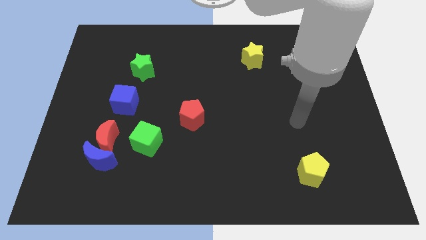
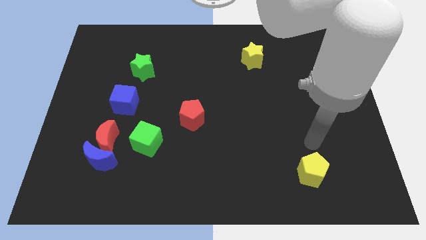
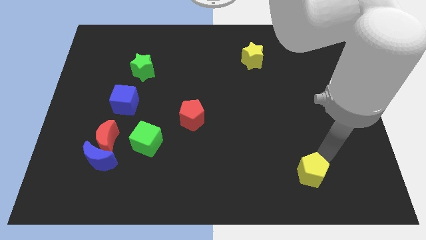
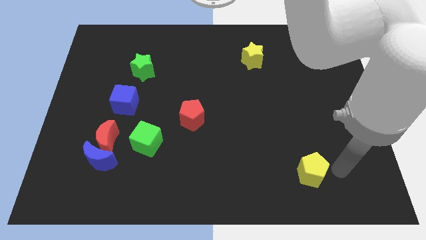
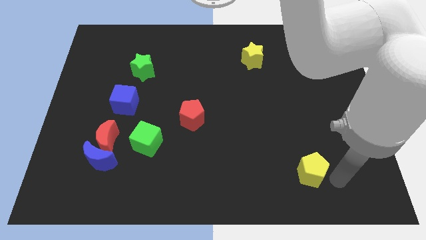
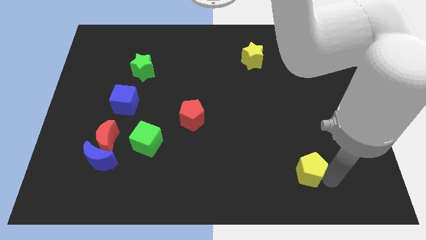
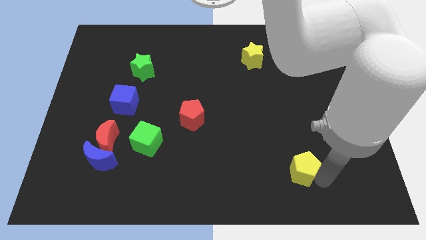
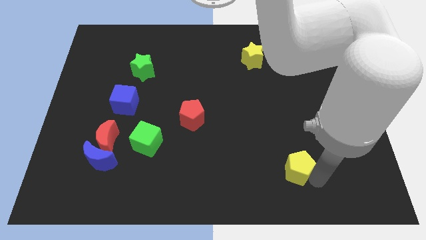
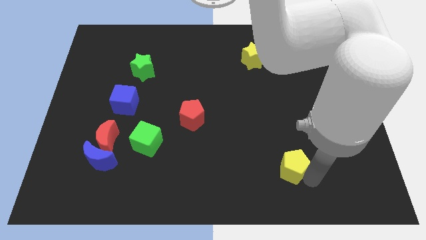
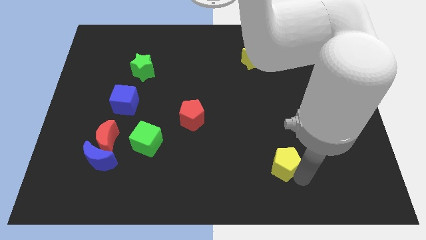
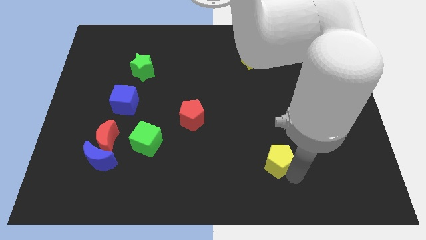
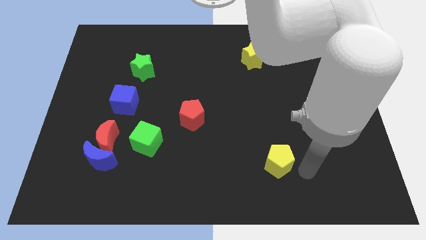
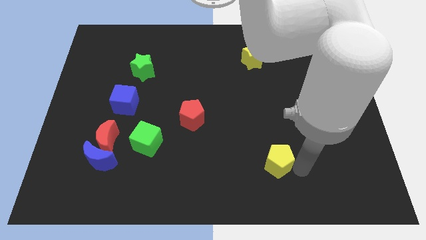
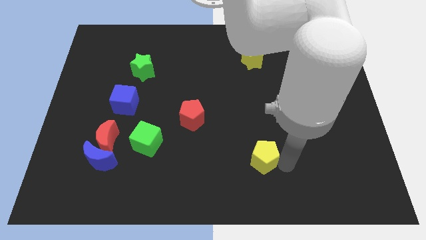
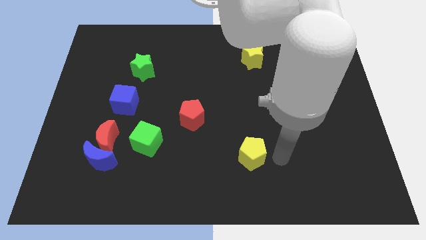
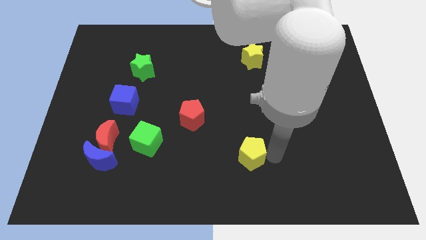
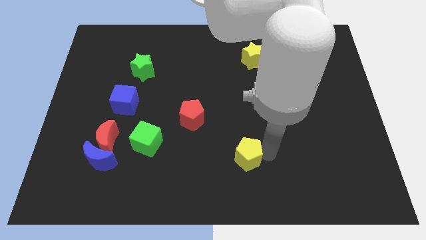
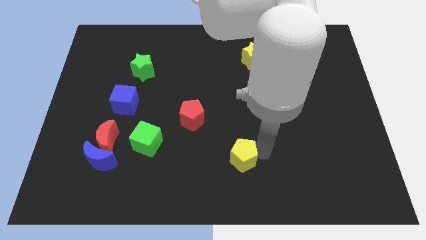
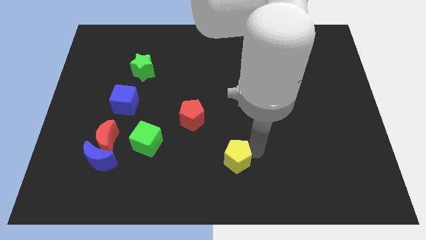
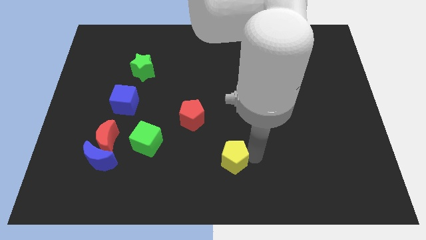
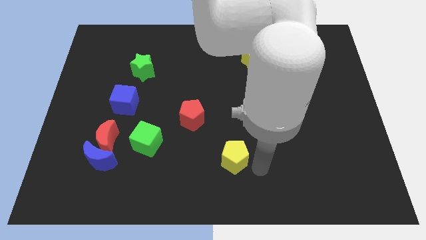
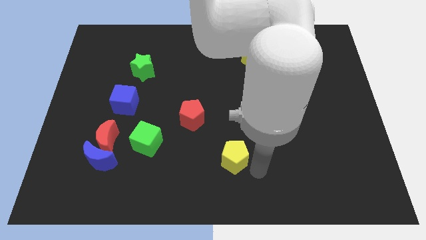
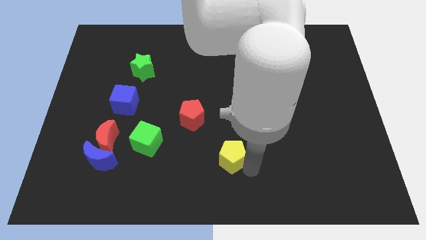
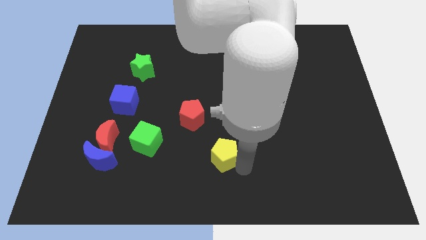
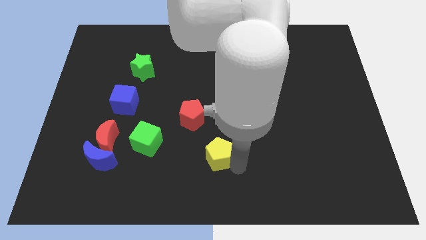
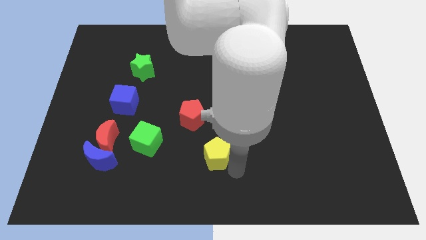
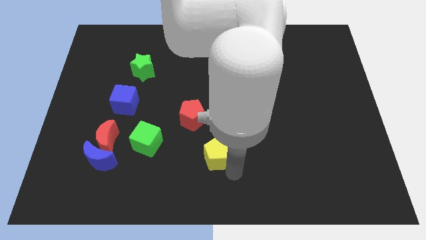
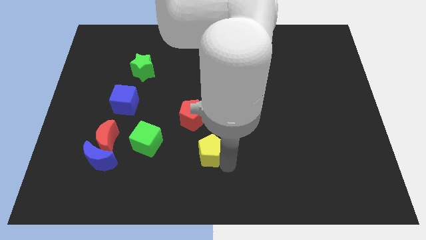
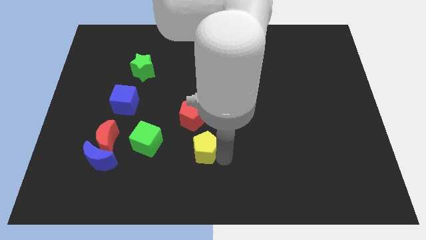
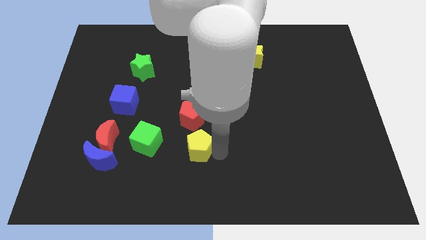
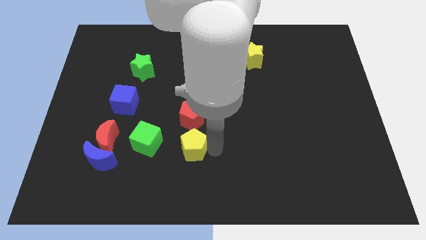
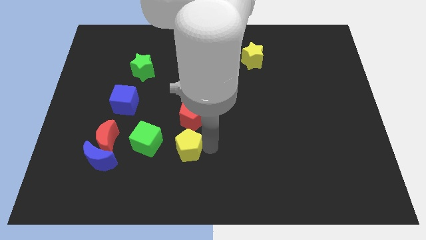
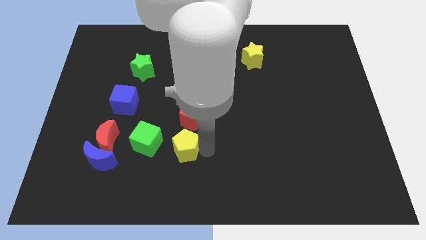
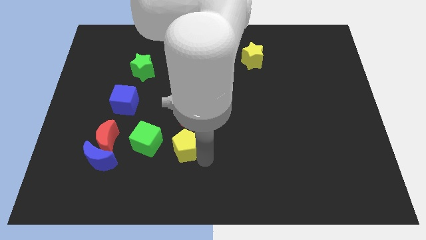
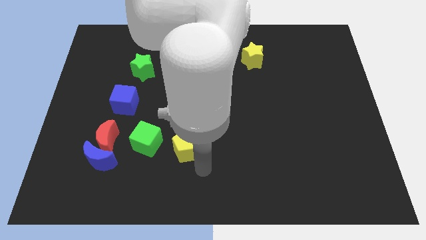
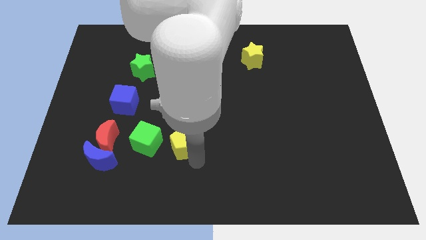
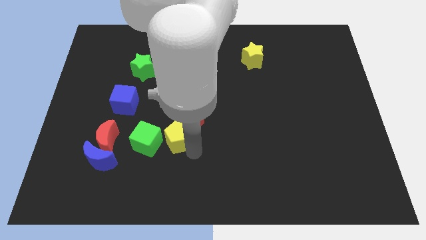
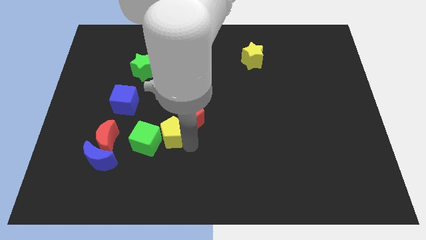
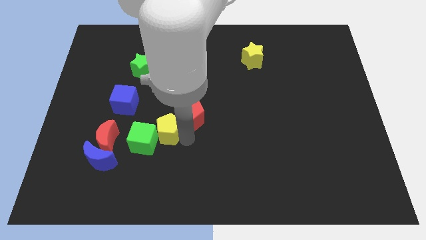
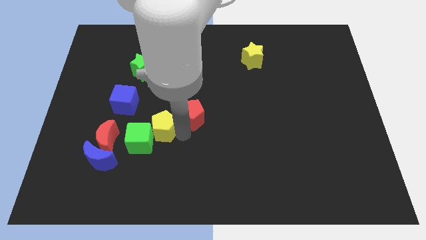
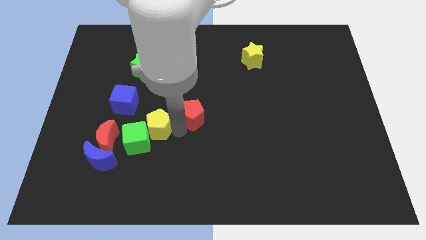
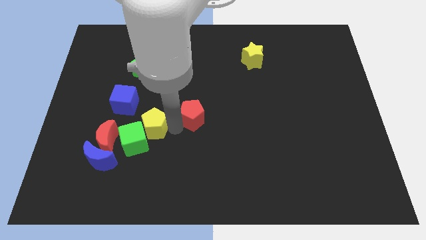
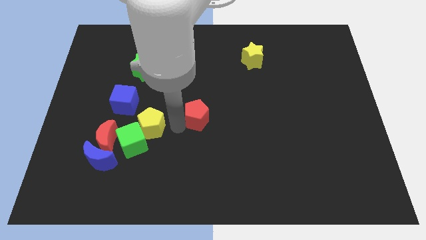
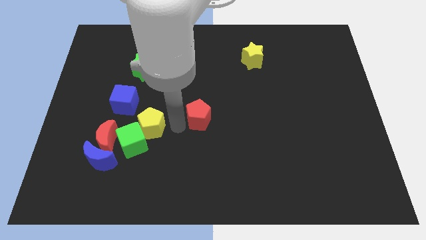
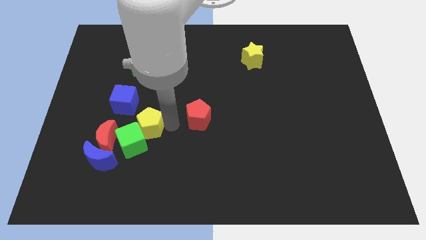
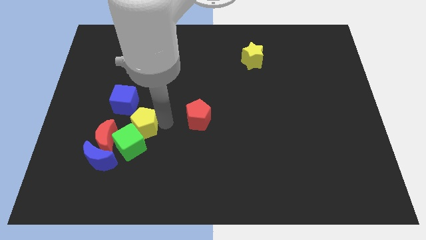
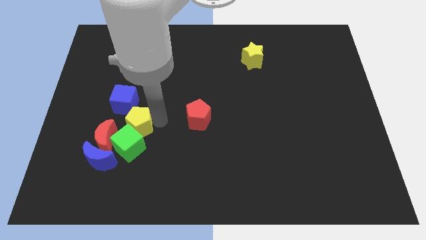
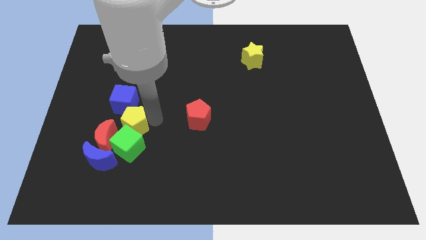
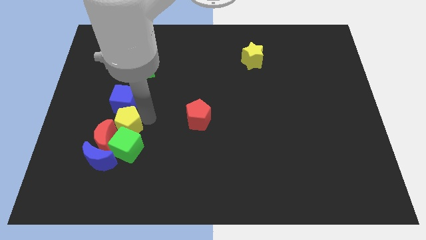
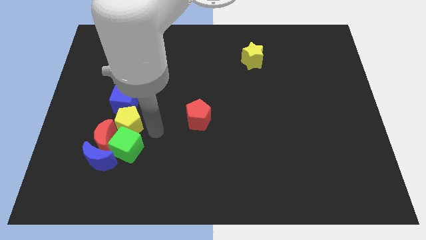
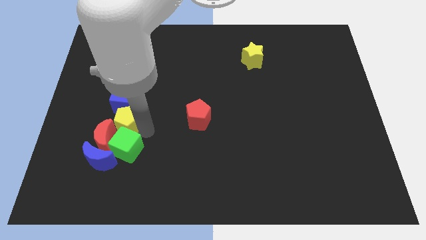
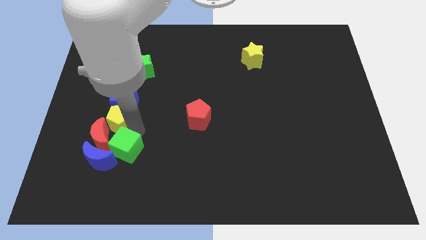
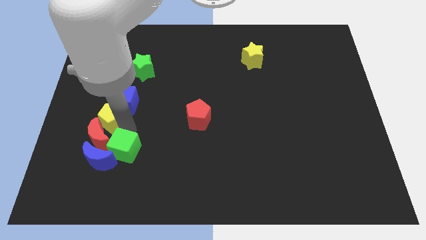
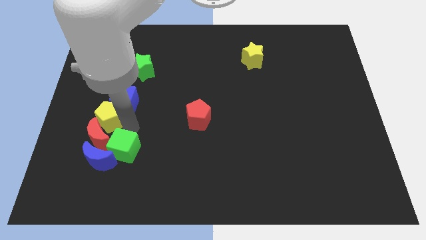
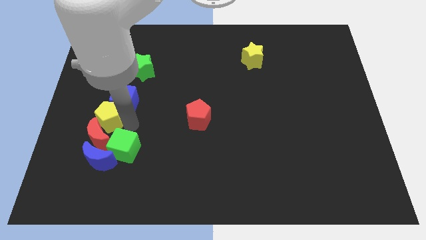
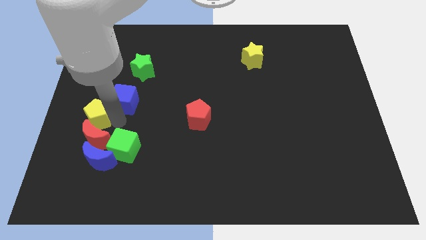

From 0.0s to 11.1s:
move the yellow pentagon to the center left
